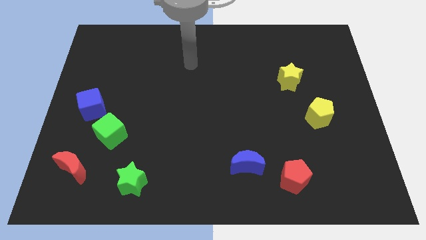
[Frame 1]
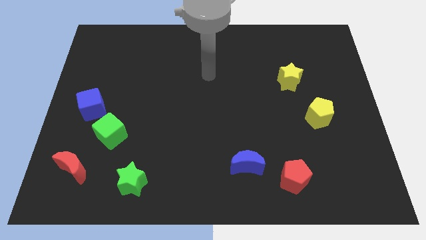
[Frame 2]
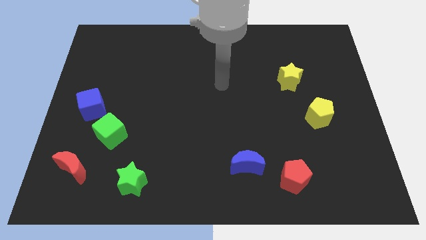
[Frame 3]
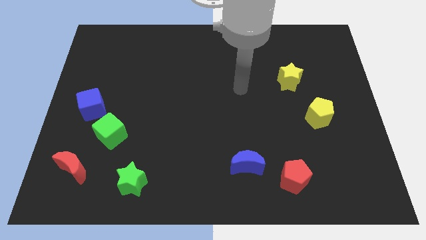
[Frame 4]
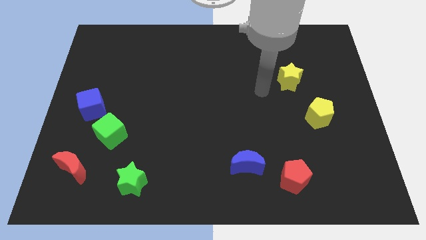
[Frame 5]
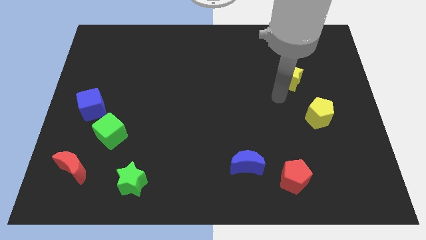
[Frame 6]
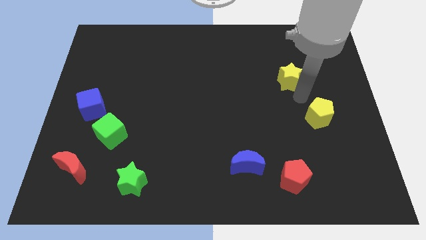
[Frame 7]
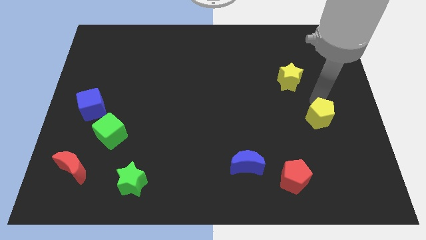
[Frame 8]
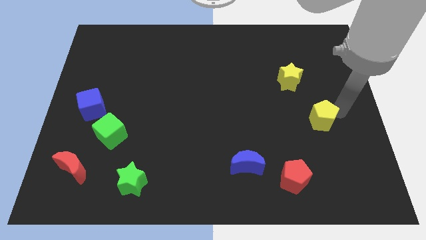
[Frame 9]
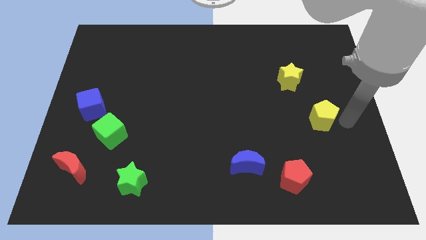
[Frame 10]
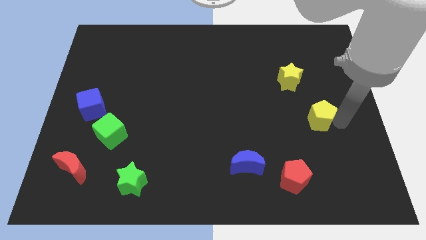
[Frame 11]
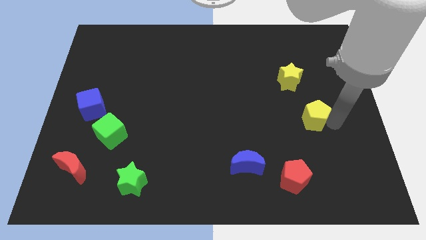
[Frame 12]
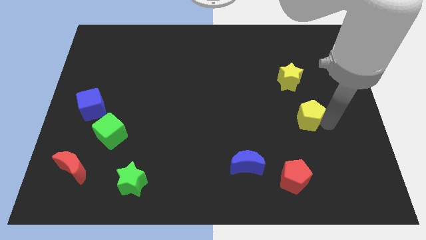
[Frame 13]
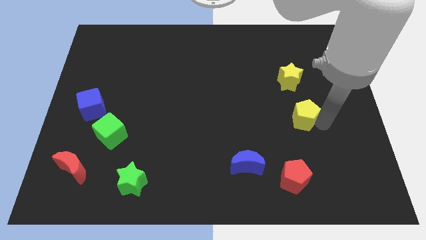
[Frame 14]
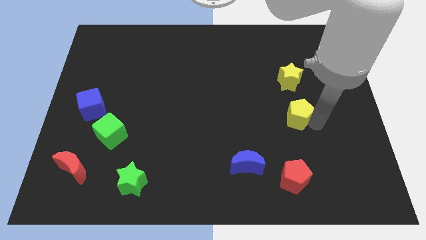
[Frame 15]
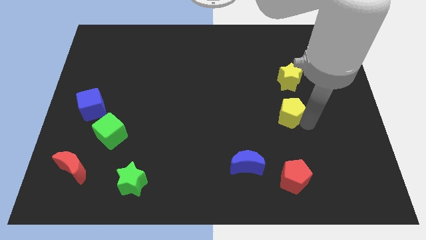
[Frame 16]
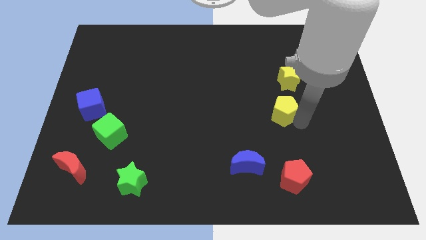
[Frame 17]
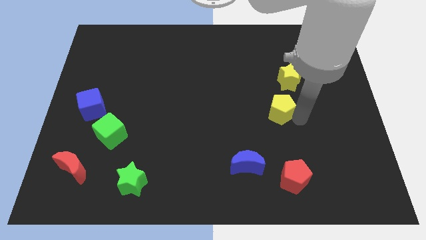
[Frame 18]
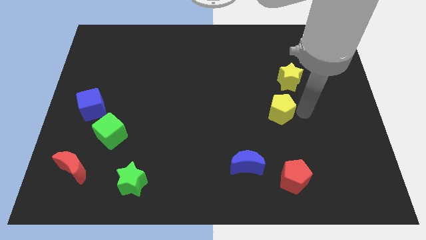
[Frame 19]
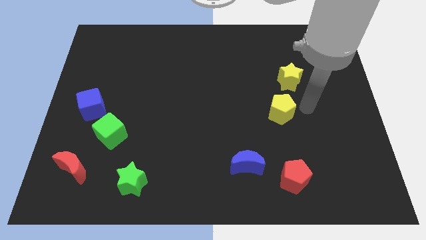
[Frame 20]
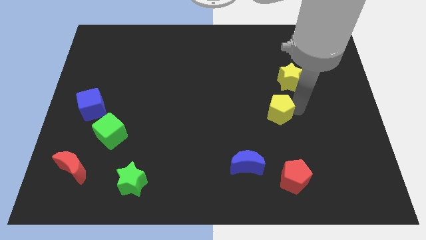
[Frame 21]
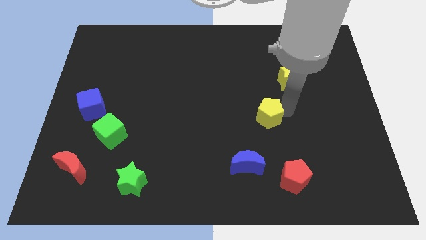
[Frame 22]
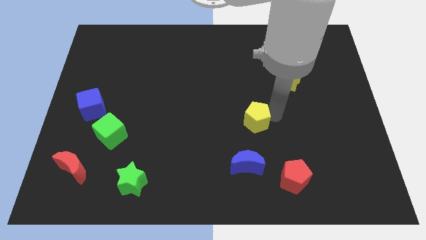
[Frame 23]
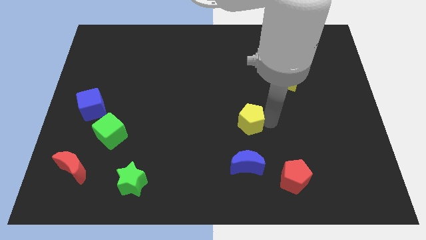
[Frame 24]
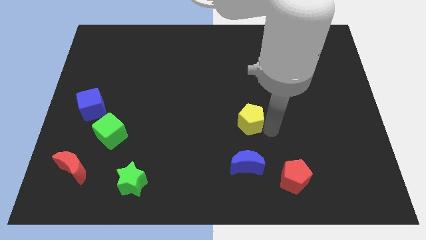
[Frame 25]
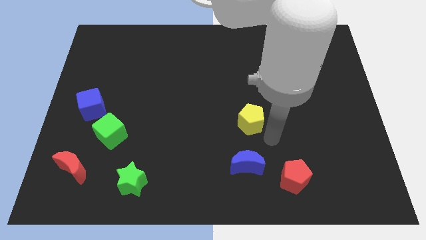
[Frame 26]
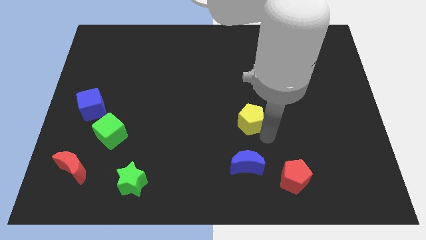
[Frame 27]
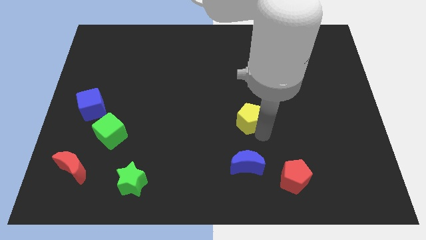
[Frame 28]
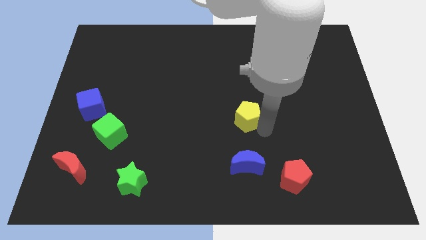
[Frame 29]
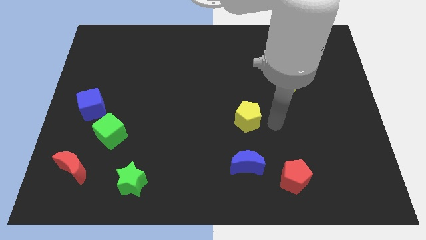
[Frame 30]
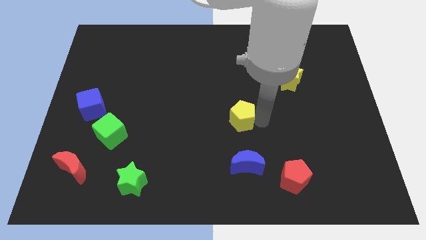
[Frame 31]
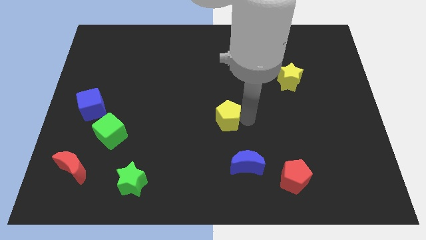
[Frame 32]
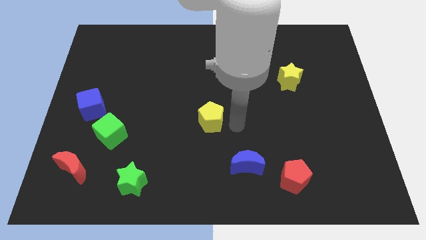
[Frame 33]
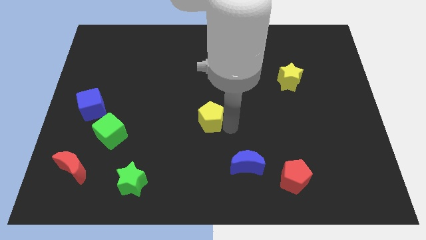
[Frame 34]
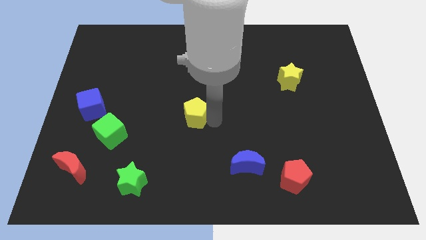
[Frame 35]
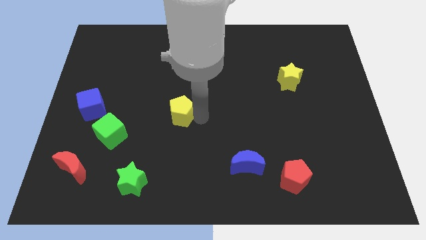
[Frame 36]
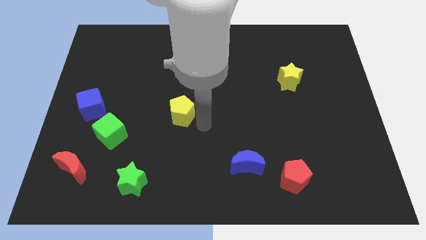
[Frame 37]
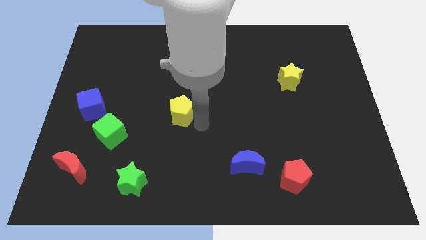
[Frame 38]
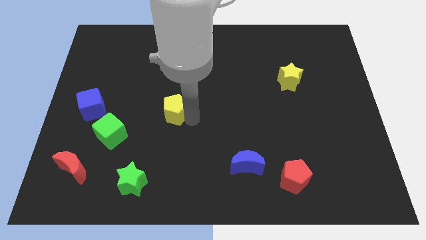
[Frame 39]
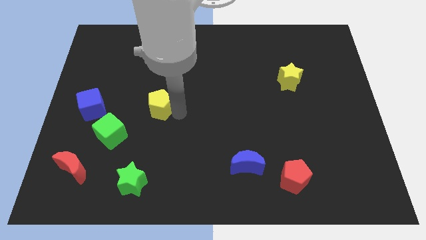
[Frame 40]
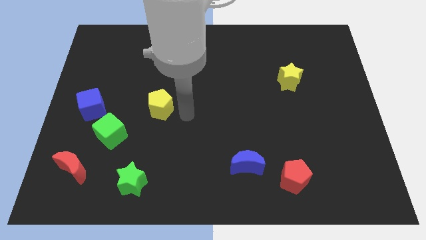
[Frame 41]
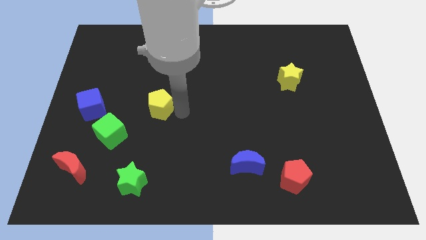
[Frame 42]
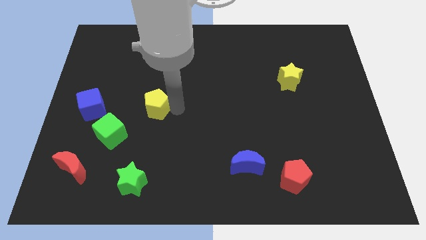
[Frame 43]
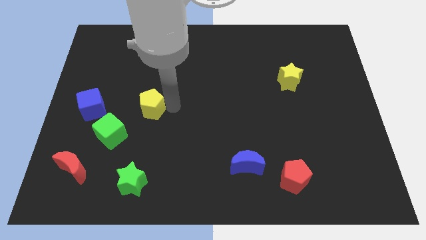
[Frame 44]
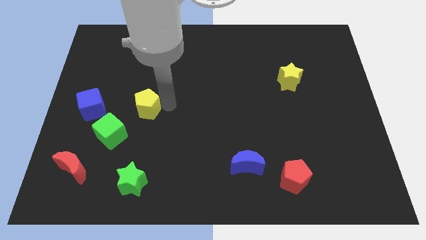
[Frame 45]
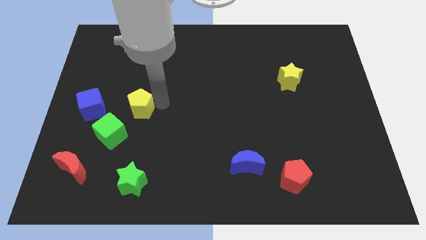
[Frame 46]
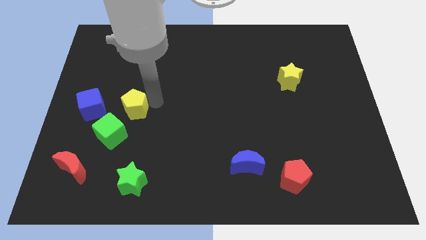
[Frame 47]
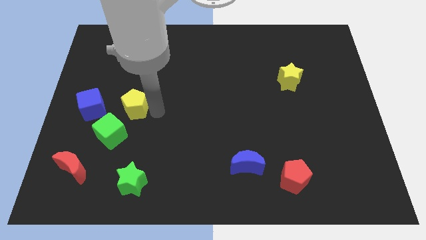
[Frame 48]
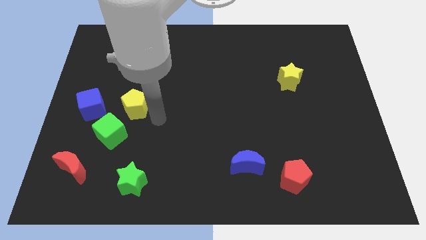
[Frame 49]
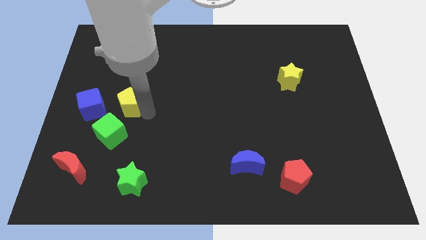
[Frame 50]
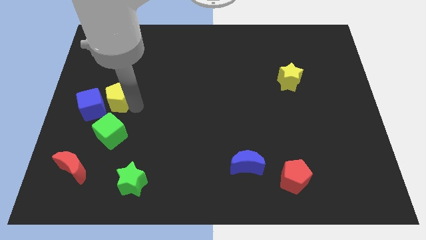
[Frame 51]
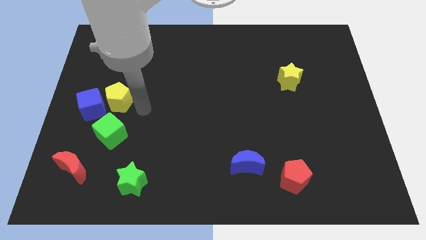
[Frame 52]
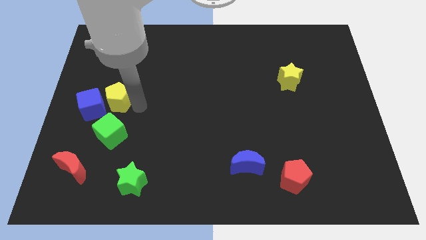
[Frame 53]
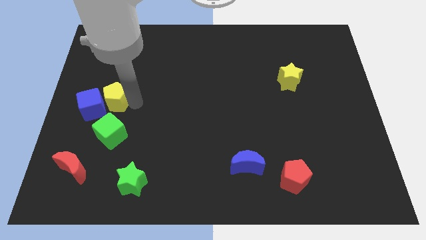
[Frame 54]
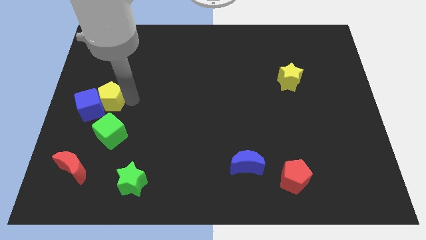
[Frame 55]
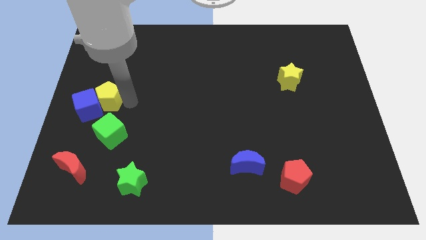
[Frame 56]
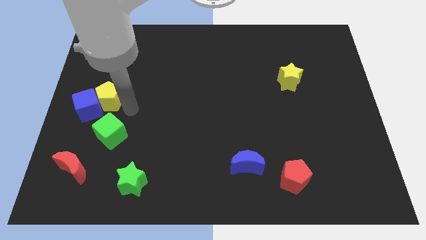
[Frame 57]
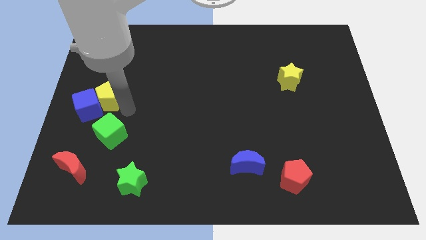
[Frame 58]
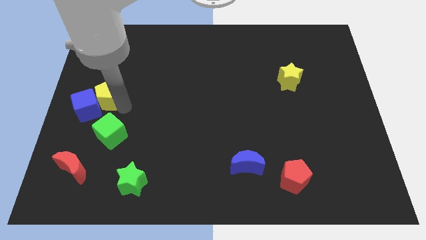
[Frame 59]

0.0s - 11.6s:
slide the yellow pentagon to the left side of the board

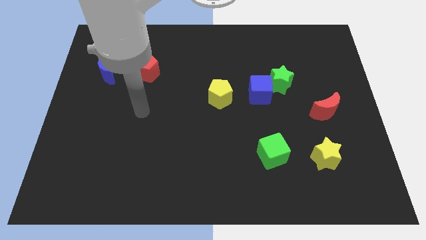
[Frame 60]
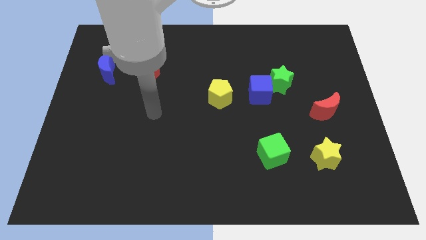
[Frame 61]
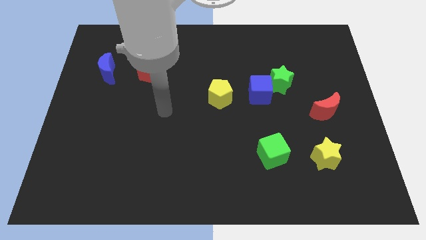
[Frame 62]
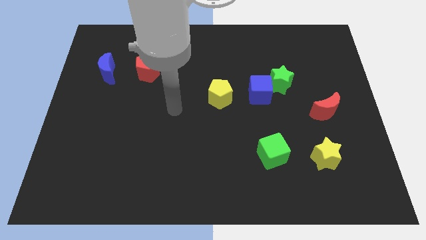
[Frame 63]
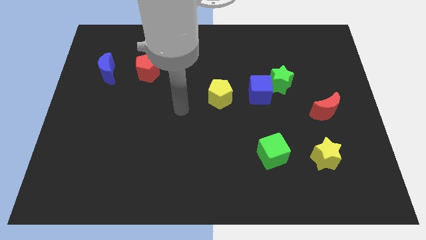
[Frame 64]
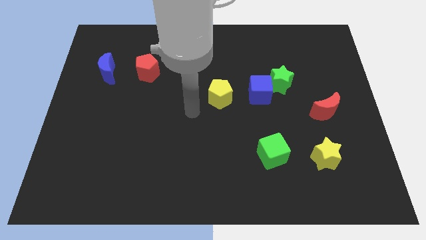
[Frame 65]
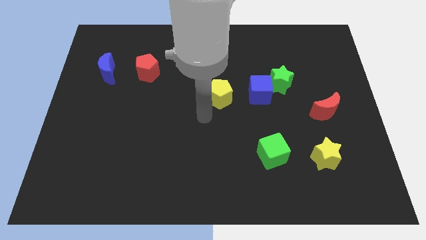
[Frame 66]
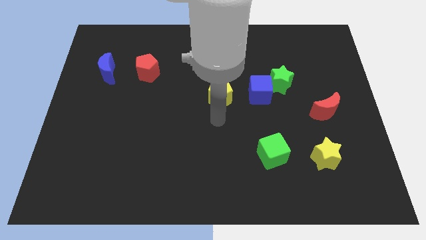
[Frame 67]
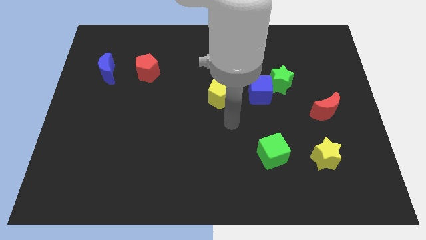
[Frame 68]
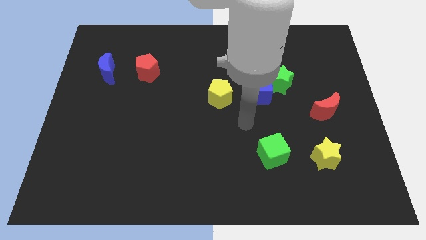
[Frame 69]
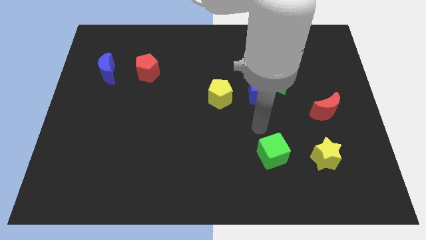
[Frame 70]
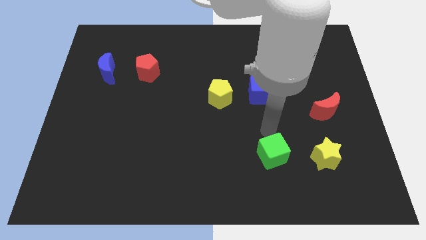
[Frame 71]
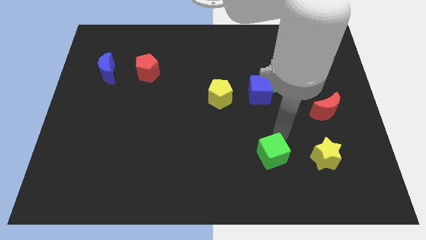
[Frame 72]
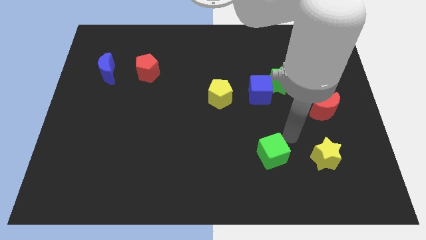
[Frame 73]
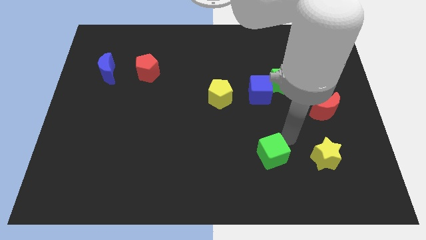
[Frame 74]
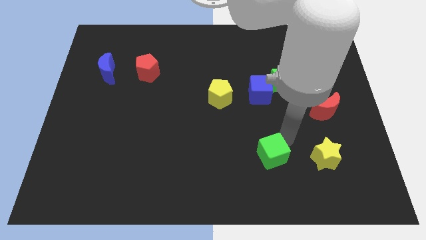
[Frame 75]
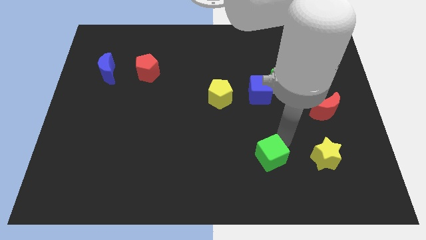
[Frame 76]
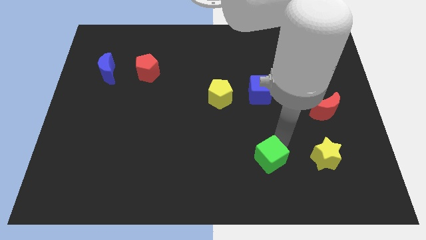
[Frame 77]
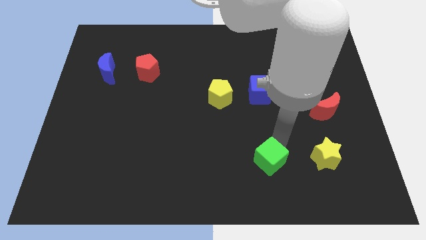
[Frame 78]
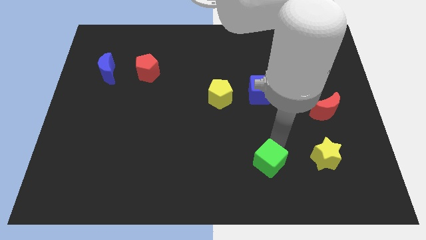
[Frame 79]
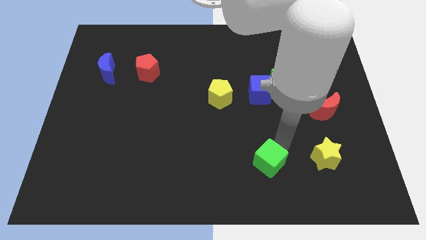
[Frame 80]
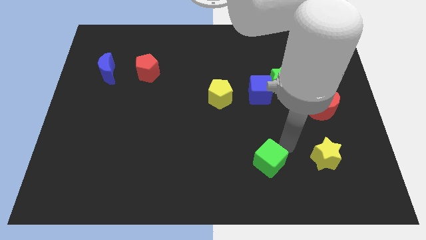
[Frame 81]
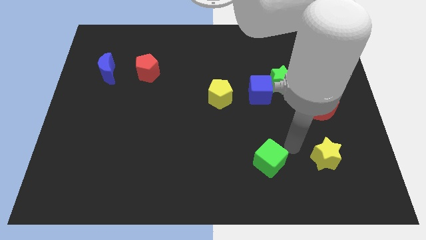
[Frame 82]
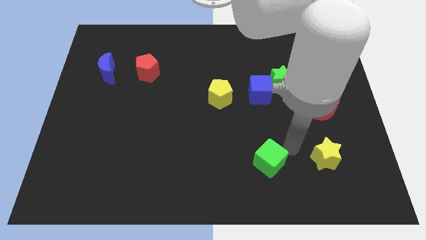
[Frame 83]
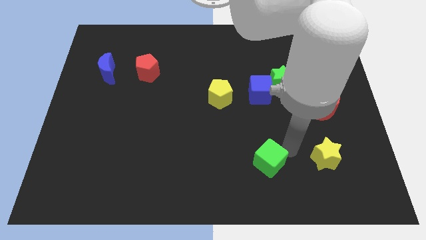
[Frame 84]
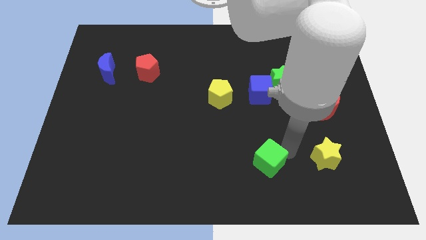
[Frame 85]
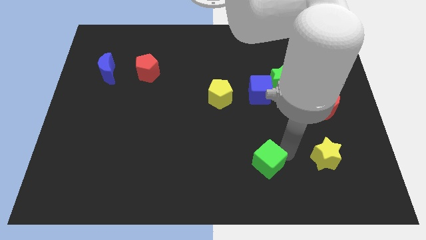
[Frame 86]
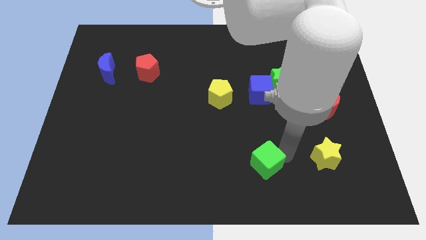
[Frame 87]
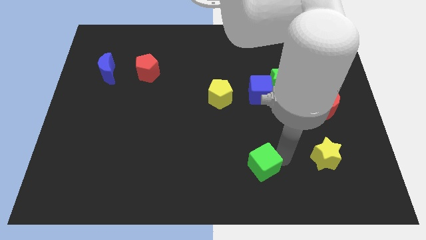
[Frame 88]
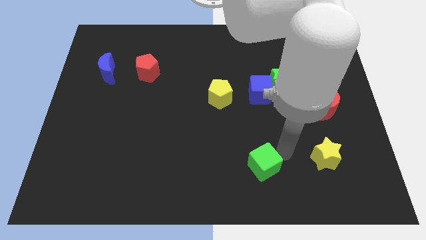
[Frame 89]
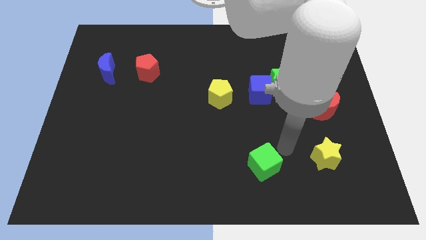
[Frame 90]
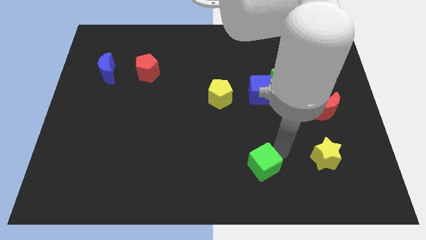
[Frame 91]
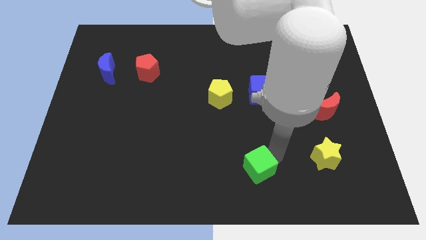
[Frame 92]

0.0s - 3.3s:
move the green cube to the bottom side
